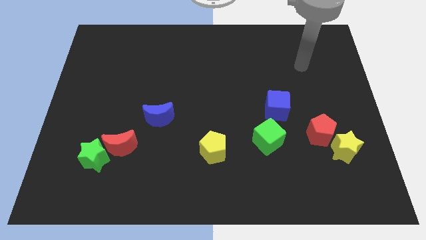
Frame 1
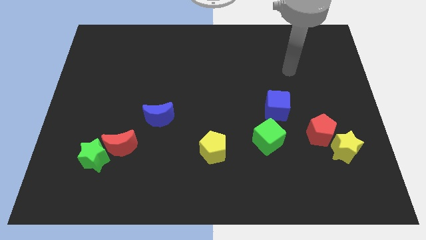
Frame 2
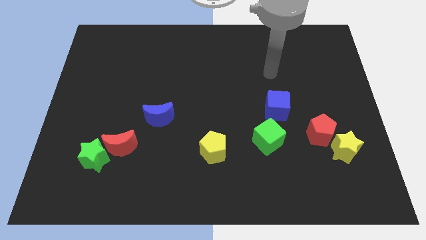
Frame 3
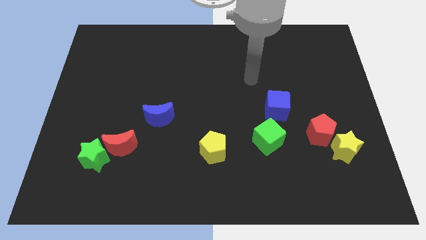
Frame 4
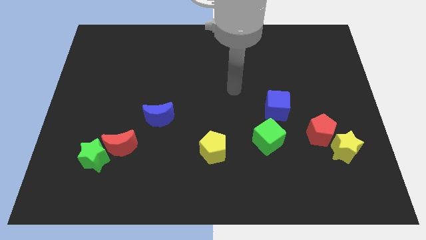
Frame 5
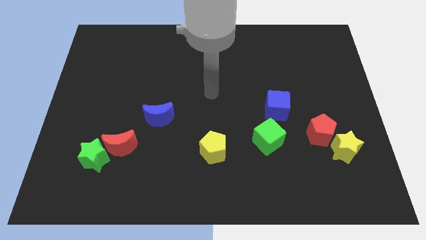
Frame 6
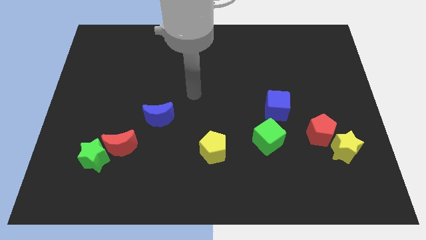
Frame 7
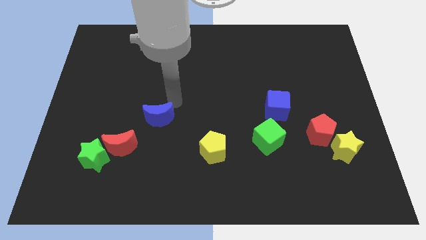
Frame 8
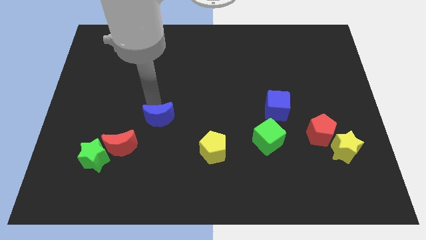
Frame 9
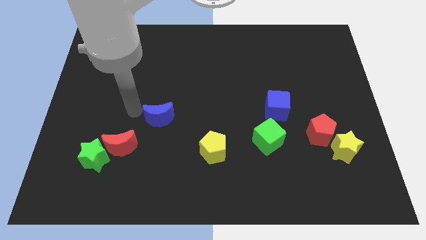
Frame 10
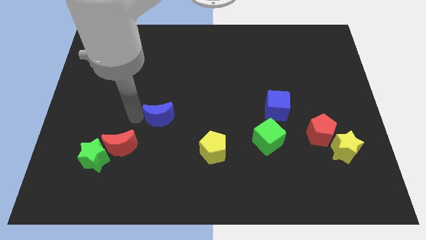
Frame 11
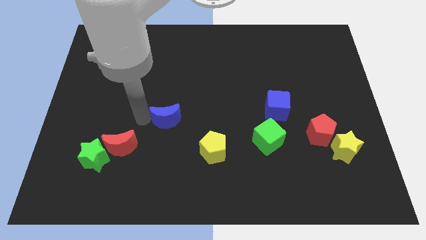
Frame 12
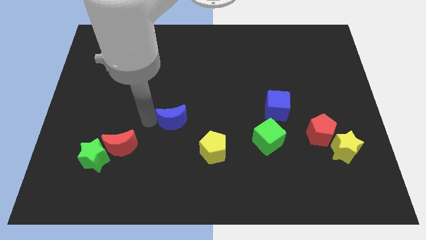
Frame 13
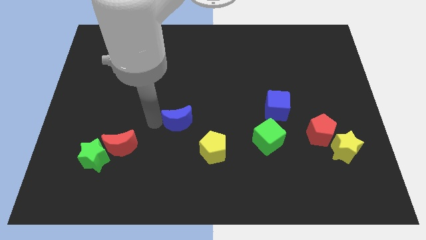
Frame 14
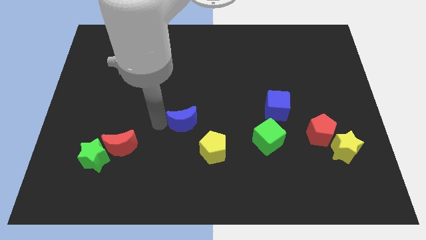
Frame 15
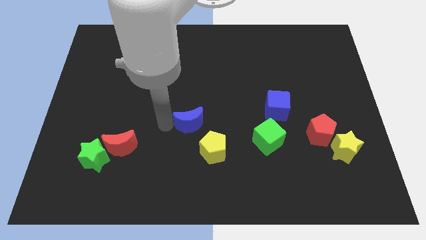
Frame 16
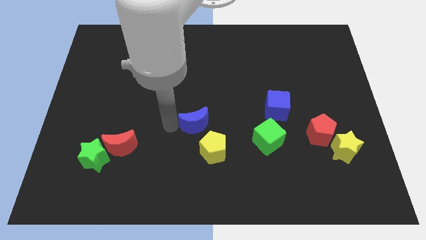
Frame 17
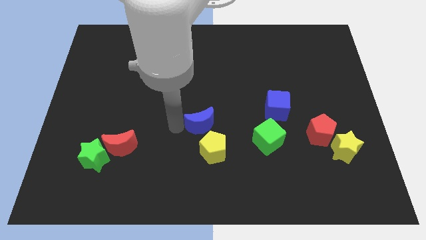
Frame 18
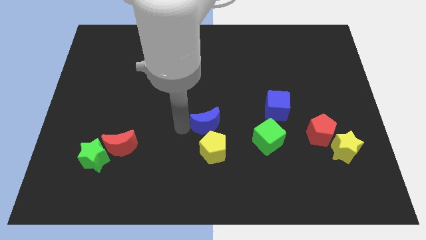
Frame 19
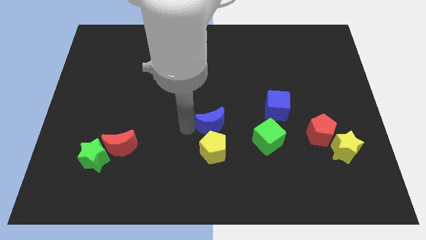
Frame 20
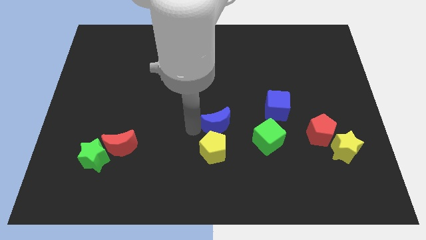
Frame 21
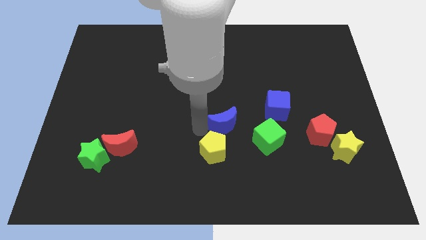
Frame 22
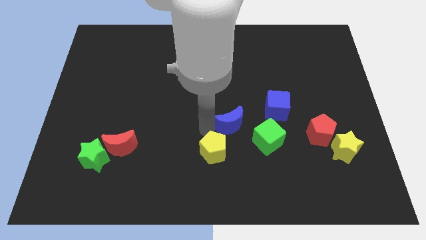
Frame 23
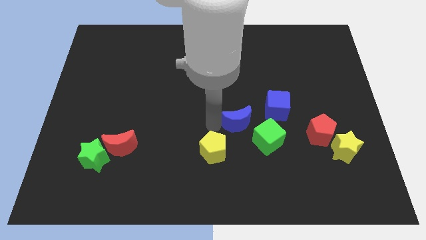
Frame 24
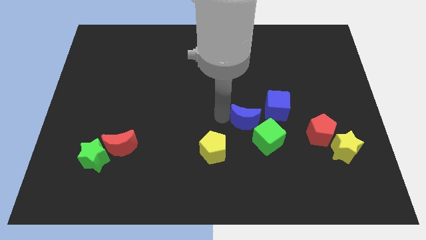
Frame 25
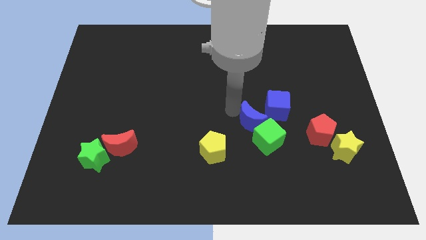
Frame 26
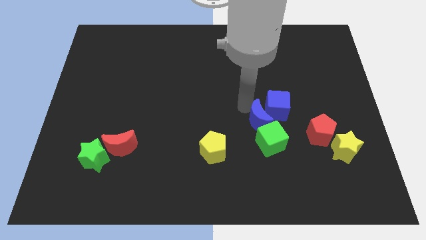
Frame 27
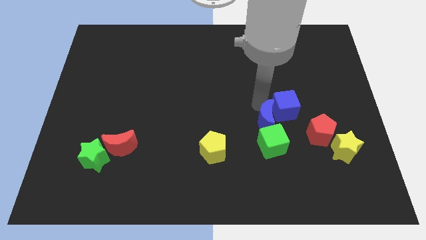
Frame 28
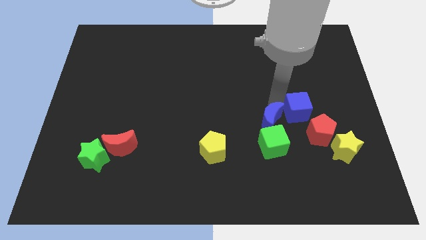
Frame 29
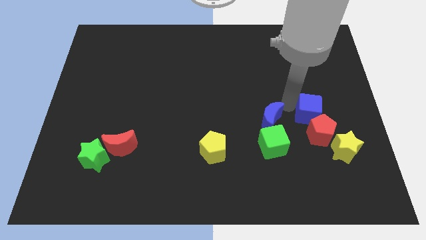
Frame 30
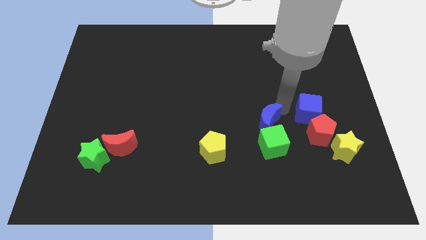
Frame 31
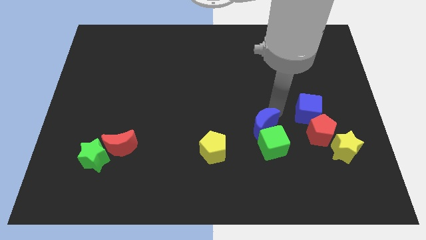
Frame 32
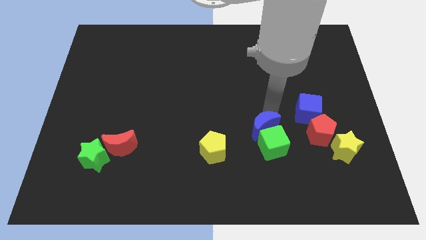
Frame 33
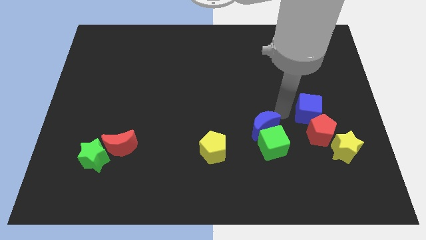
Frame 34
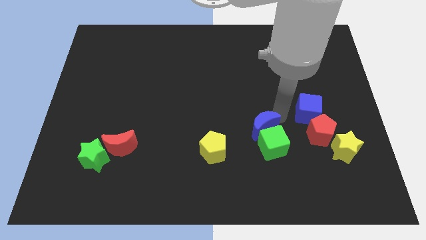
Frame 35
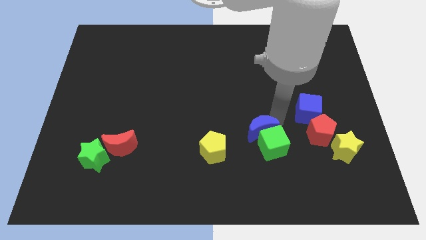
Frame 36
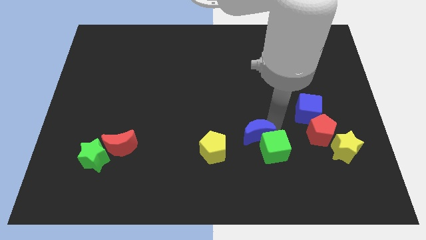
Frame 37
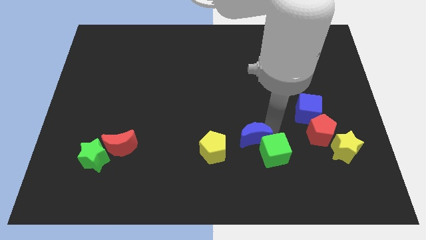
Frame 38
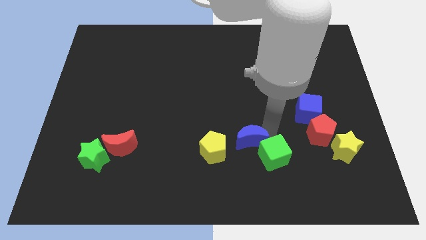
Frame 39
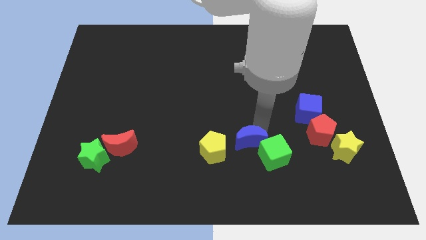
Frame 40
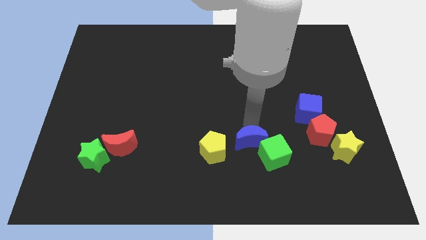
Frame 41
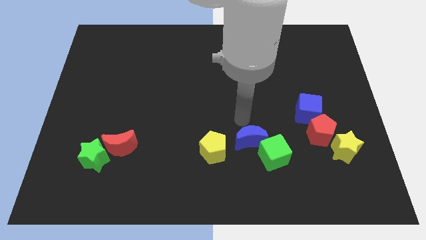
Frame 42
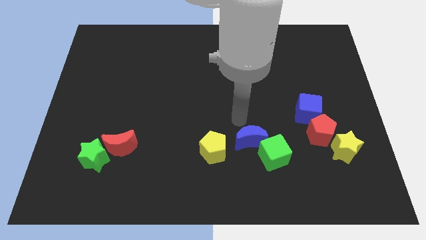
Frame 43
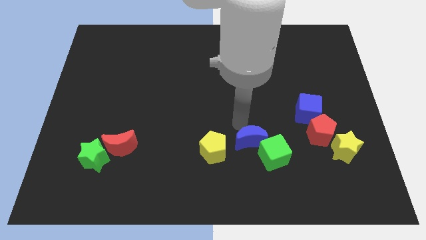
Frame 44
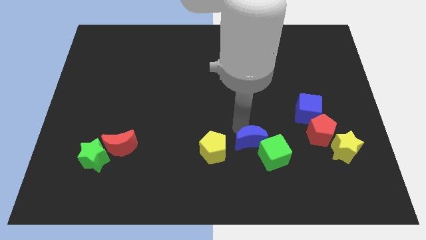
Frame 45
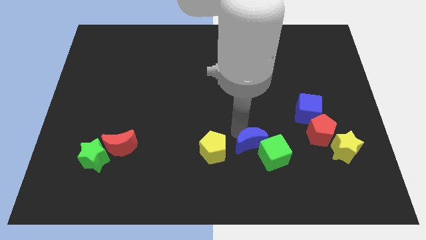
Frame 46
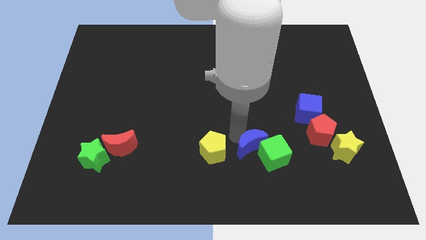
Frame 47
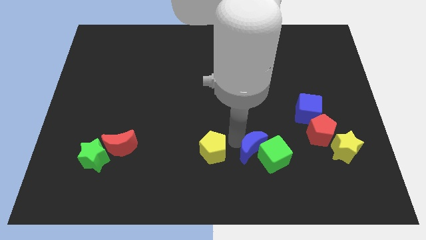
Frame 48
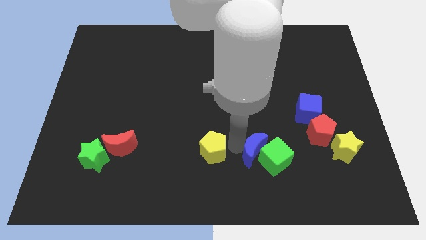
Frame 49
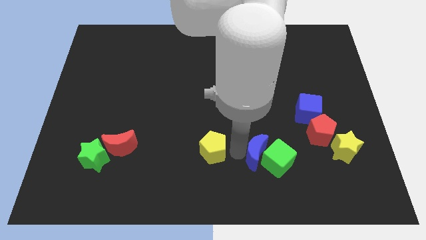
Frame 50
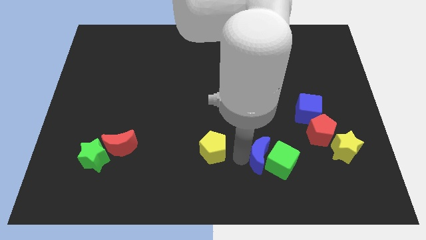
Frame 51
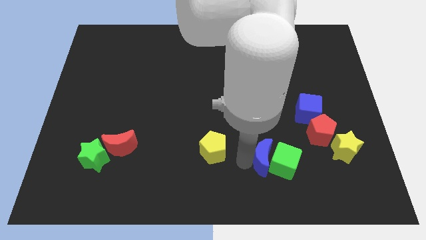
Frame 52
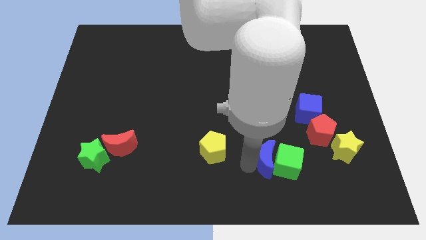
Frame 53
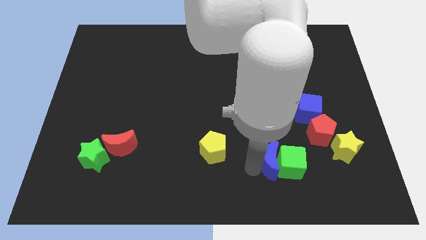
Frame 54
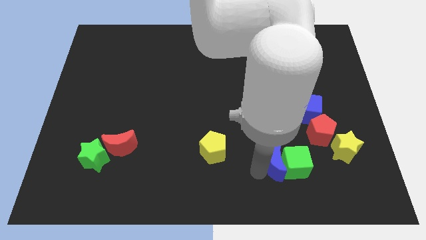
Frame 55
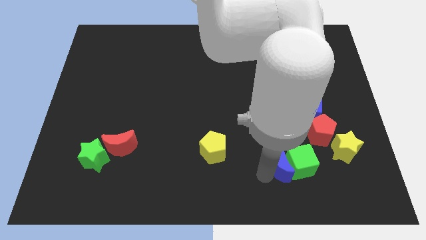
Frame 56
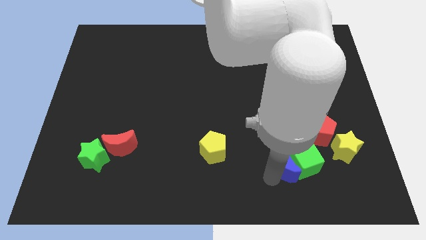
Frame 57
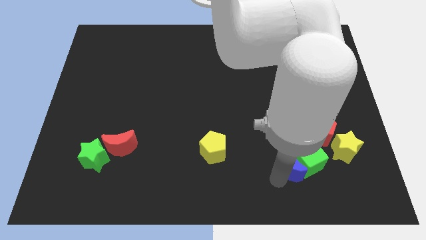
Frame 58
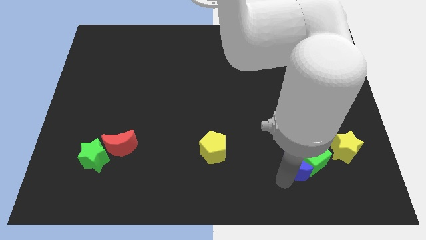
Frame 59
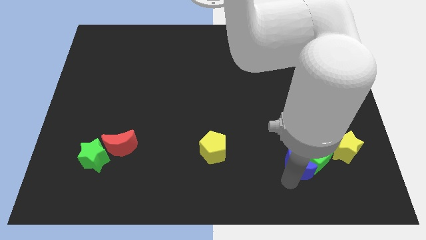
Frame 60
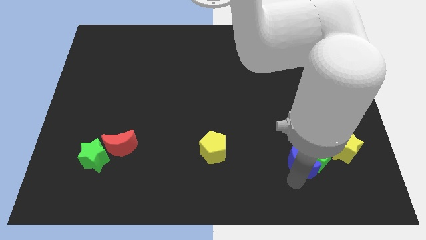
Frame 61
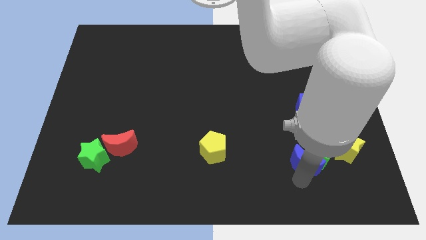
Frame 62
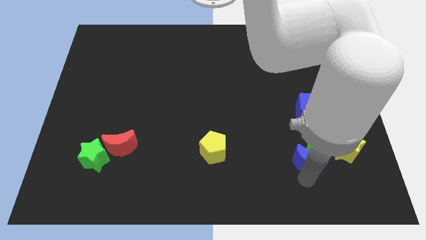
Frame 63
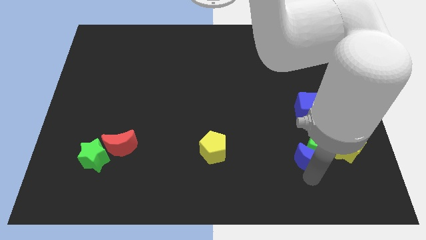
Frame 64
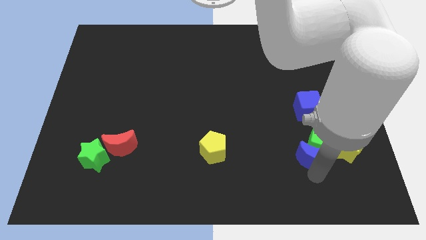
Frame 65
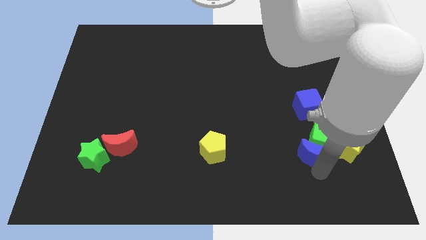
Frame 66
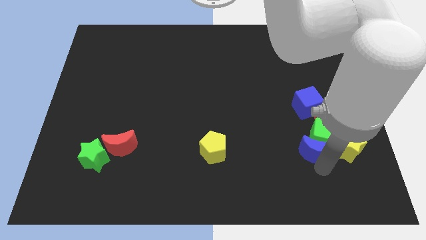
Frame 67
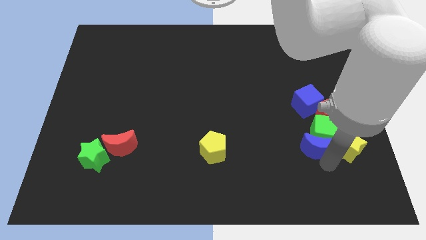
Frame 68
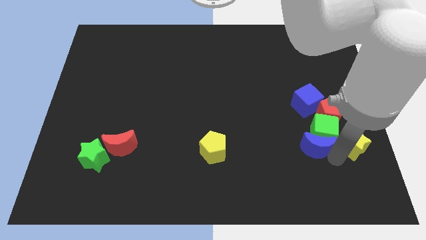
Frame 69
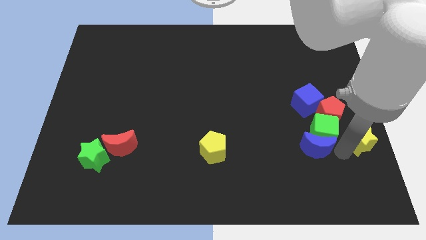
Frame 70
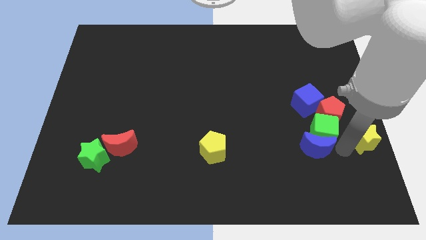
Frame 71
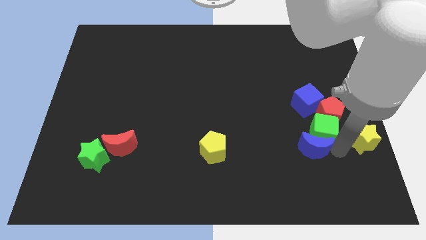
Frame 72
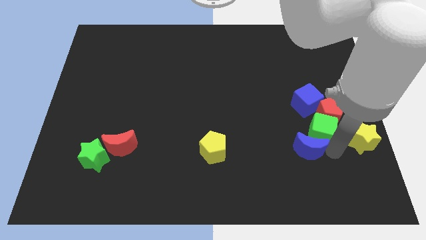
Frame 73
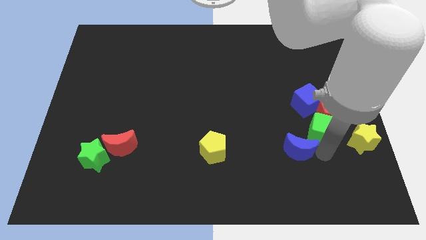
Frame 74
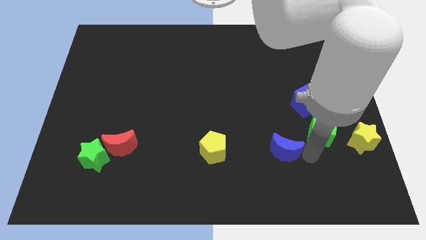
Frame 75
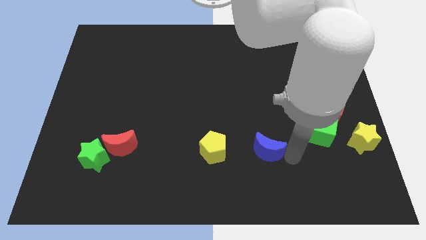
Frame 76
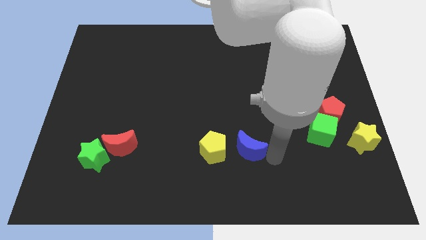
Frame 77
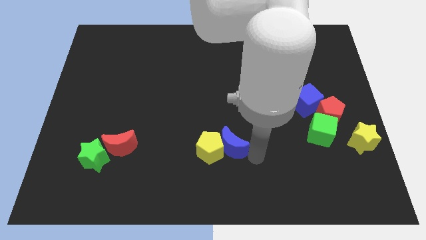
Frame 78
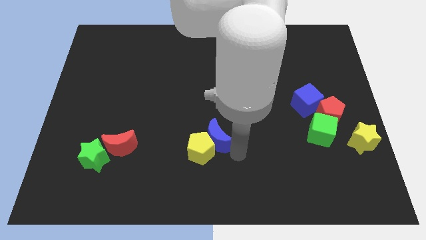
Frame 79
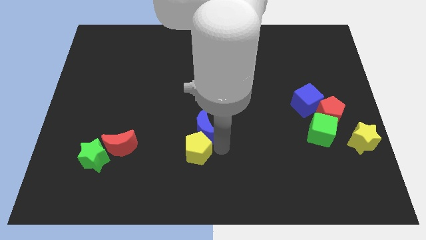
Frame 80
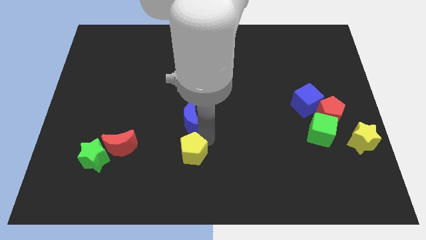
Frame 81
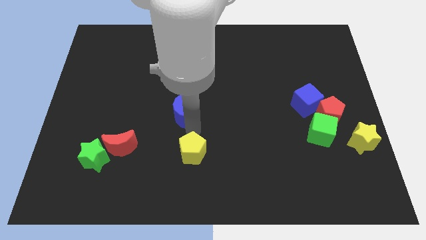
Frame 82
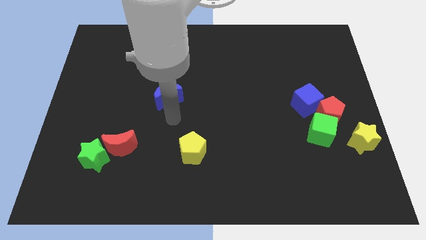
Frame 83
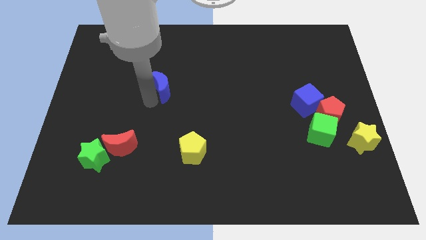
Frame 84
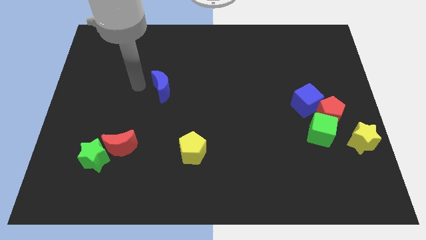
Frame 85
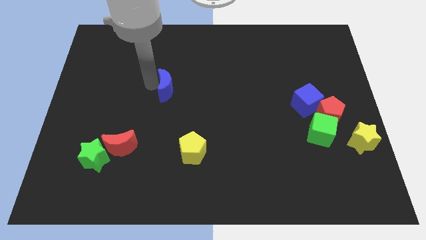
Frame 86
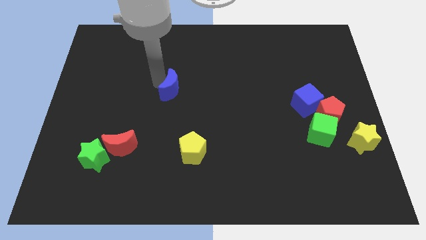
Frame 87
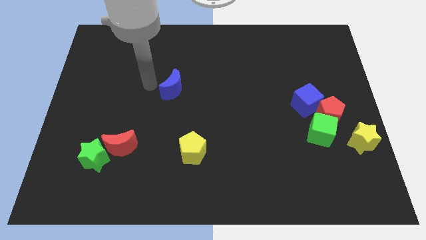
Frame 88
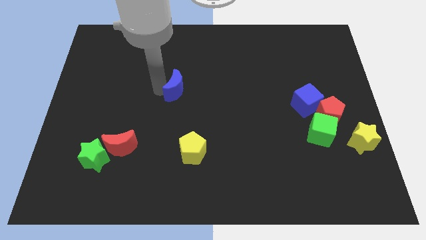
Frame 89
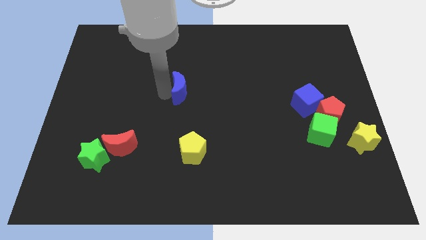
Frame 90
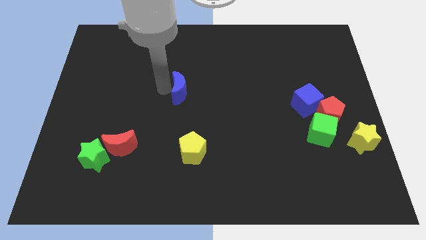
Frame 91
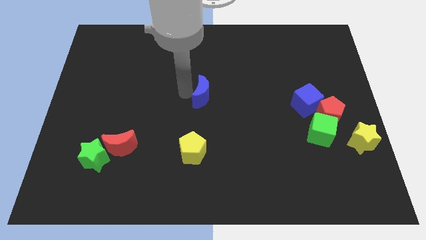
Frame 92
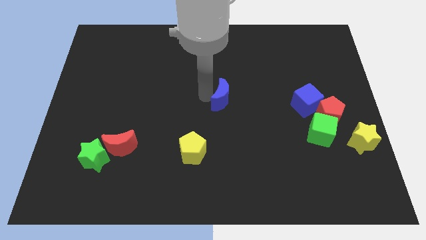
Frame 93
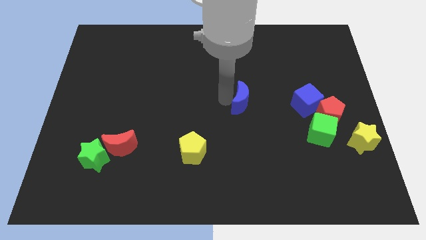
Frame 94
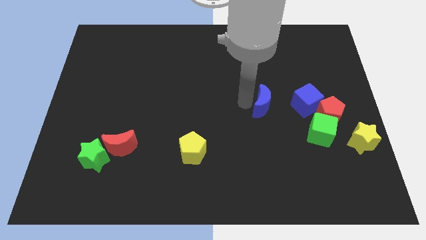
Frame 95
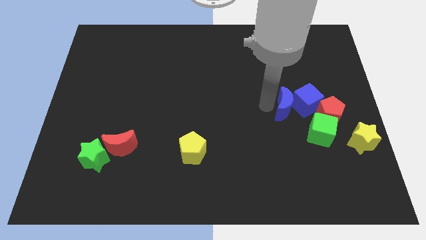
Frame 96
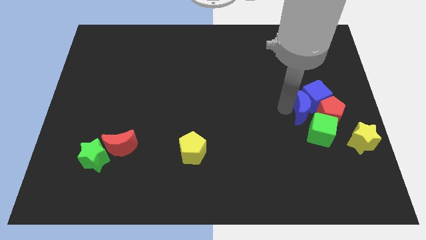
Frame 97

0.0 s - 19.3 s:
move the blue moon close to the red pentagon
